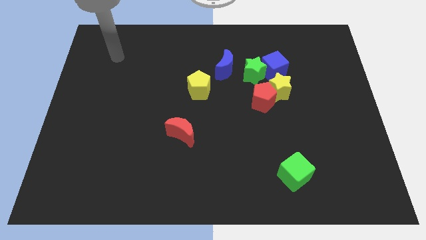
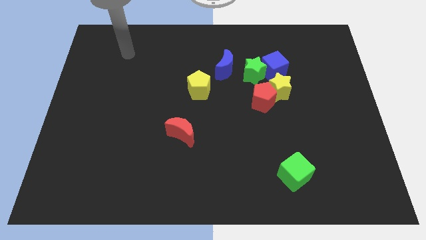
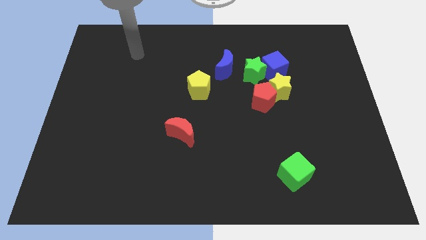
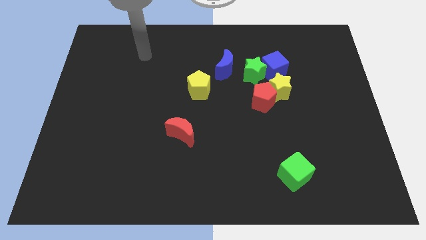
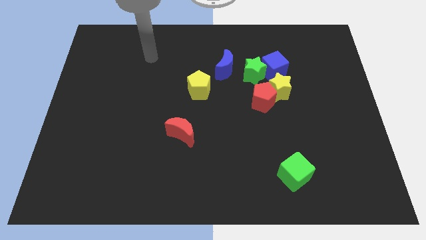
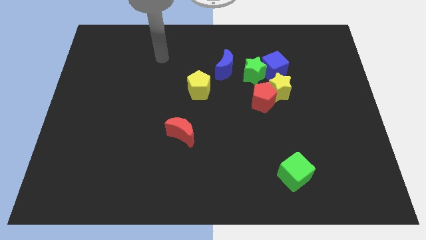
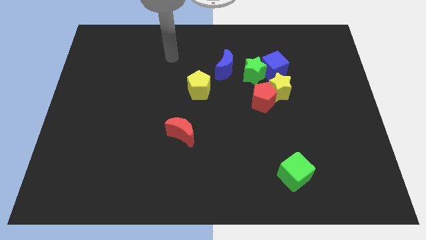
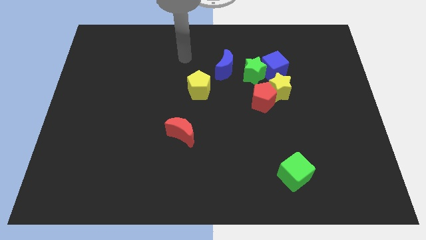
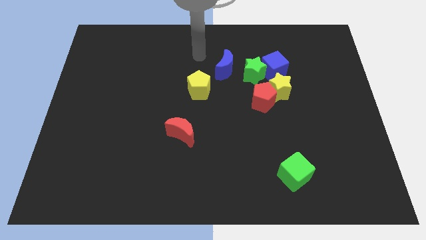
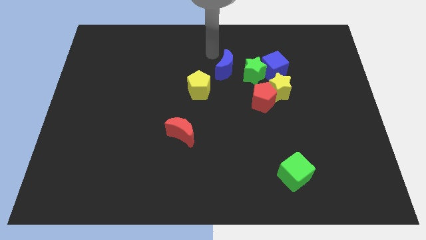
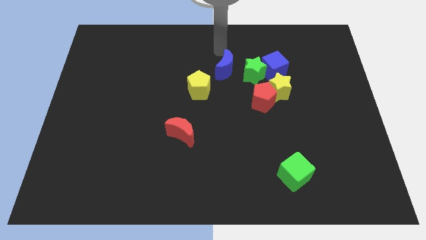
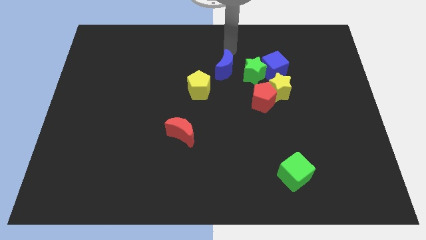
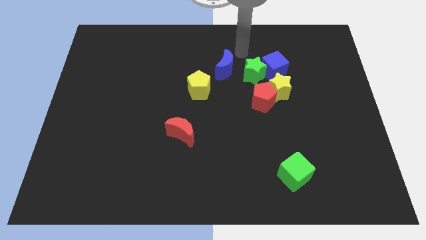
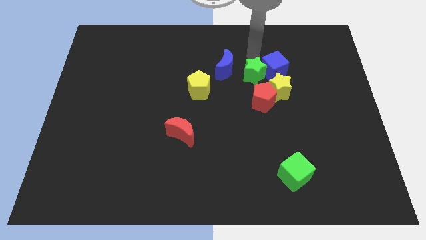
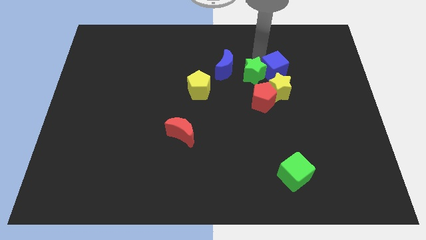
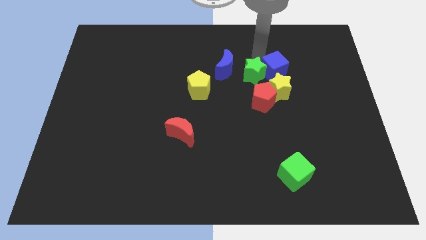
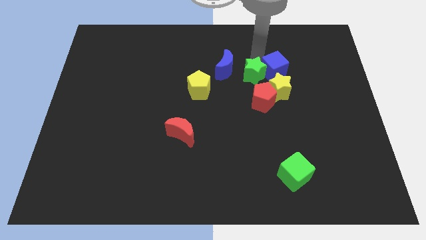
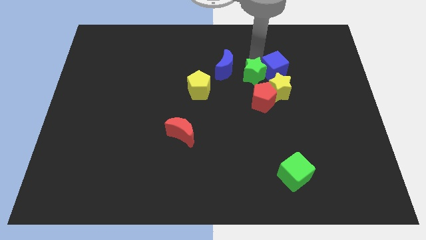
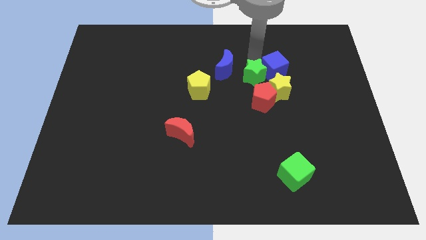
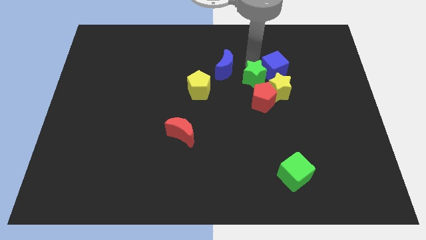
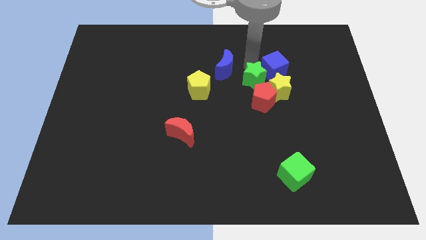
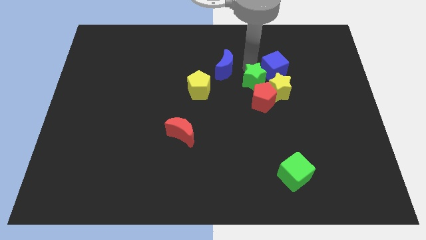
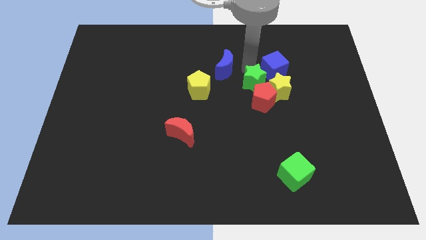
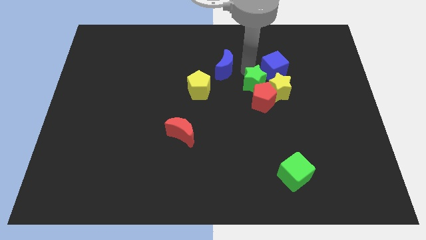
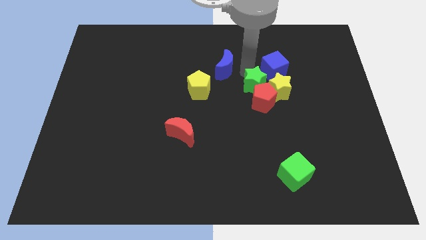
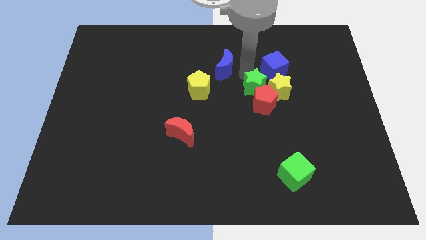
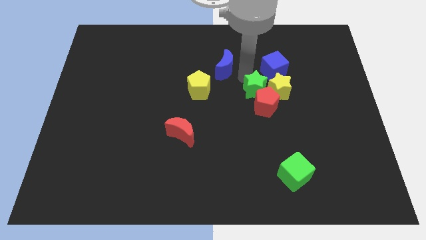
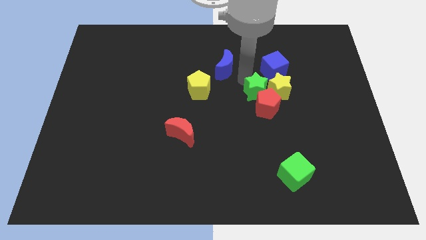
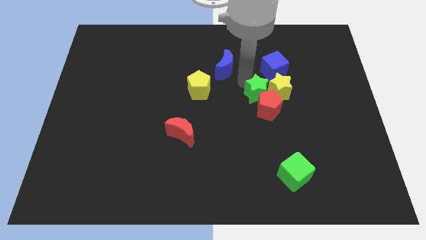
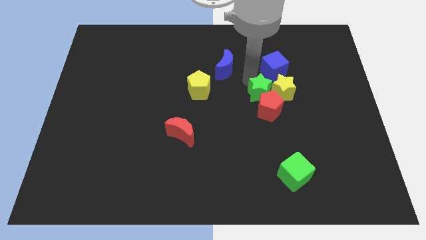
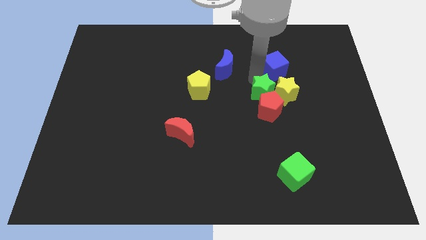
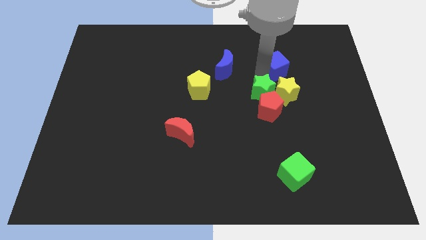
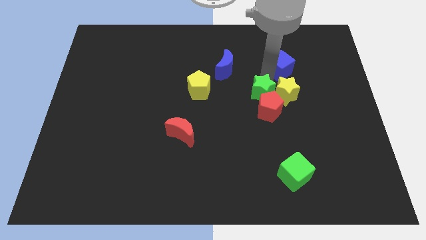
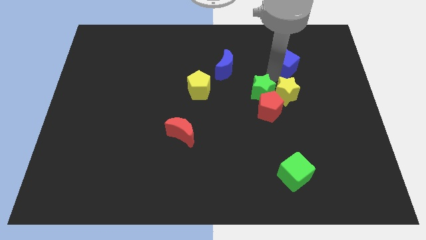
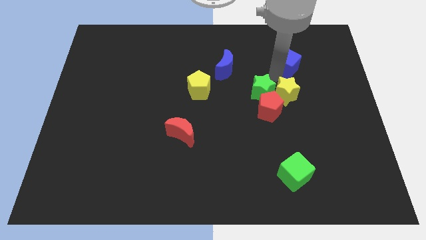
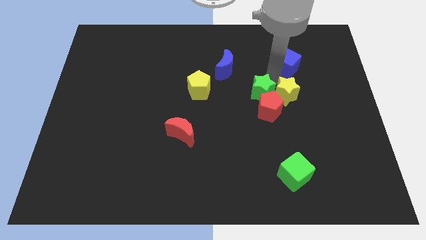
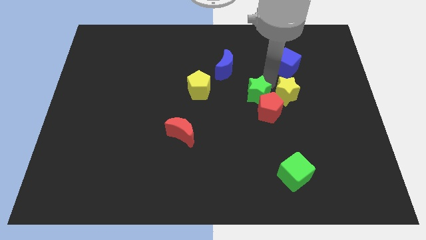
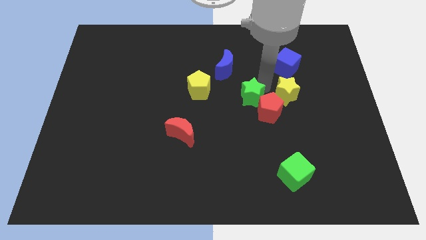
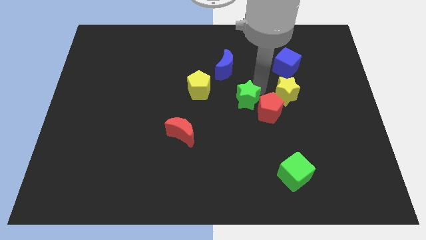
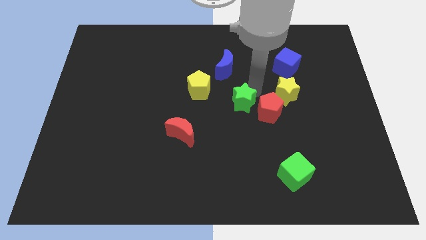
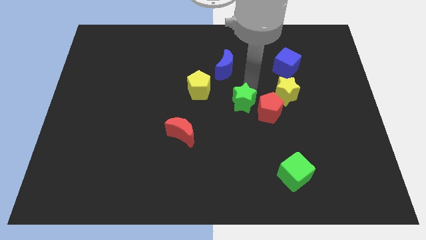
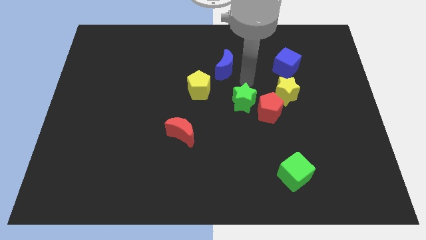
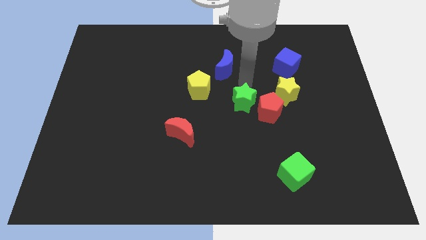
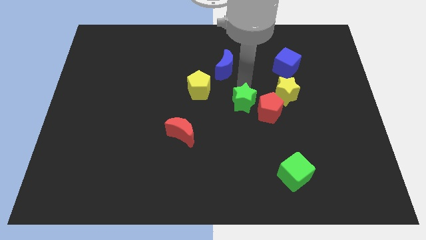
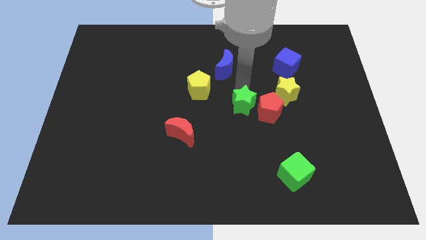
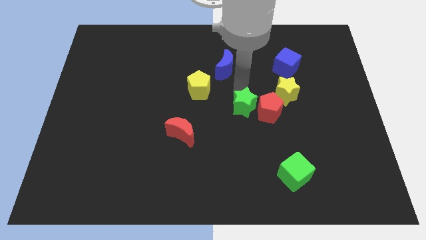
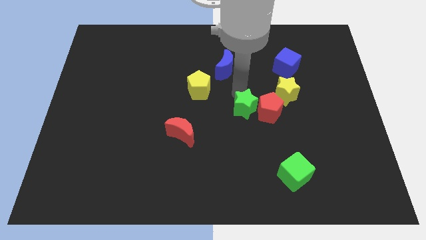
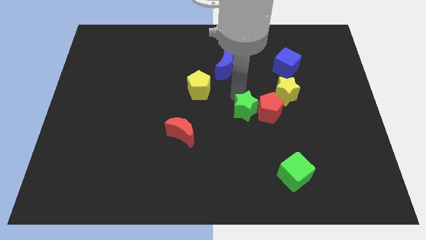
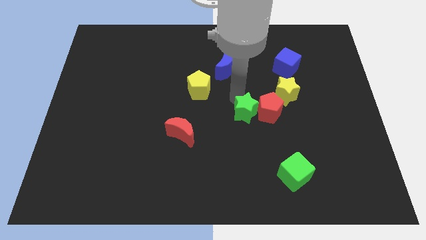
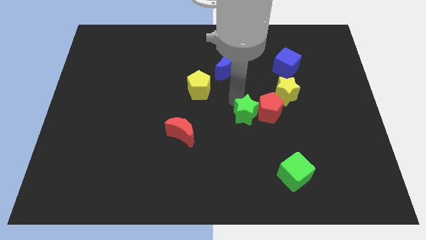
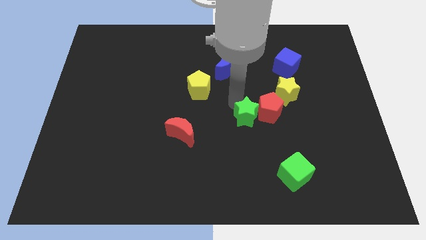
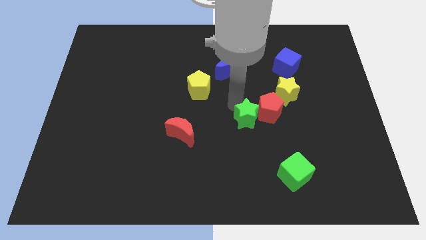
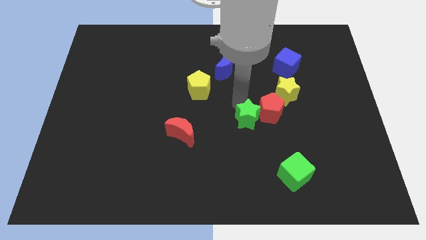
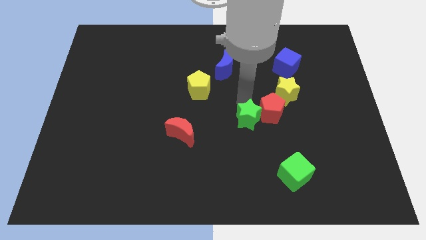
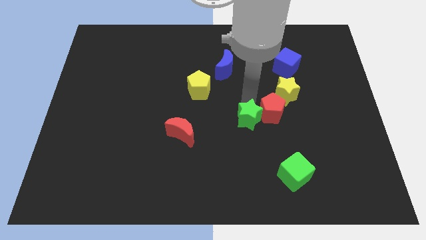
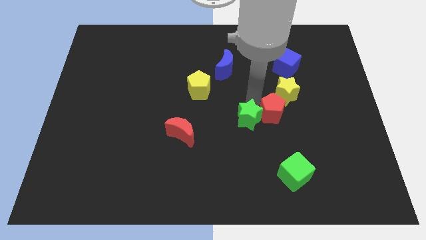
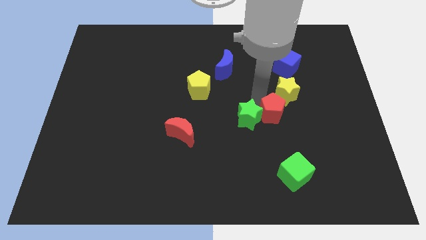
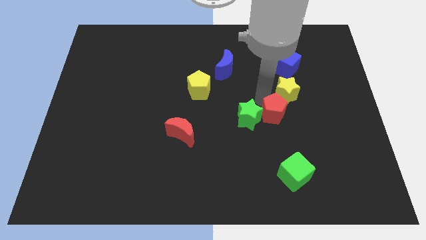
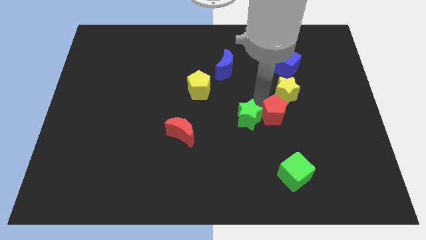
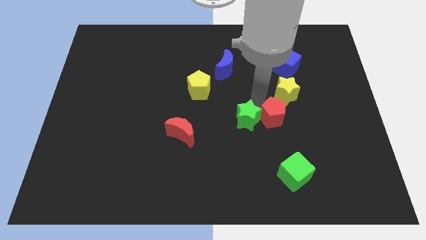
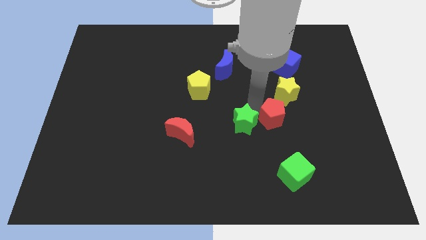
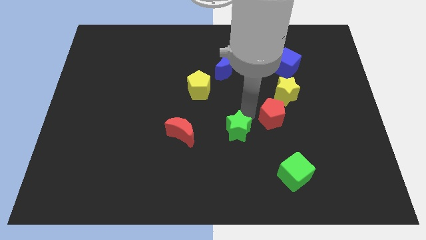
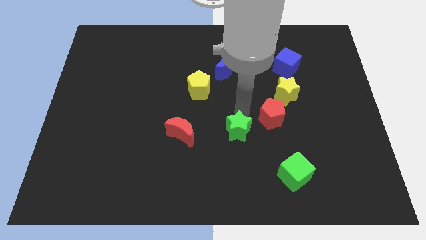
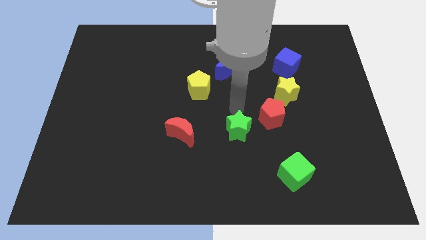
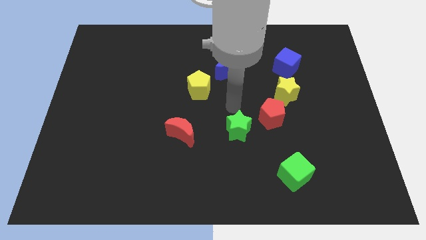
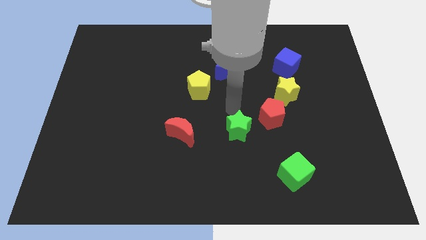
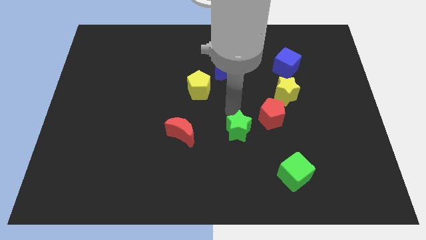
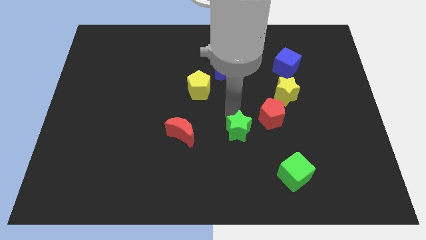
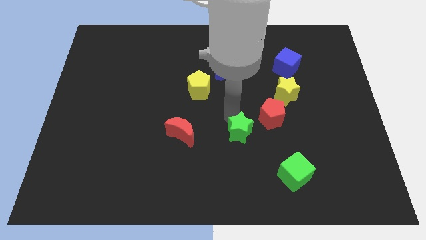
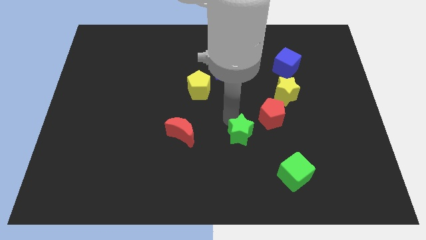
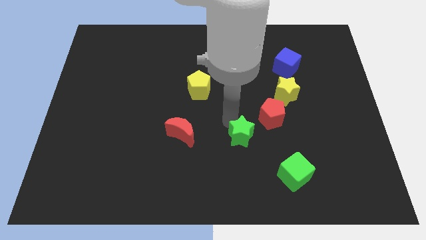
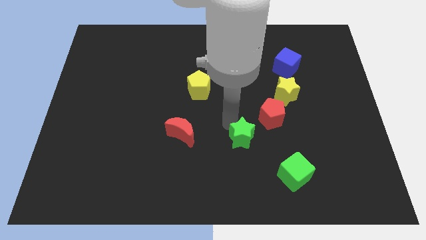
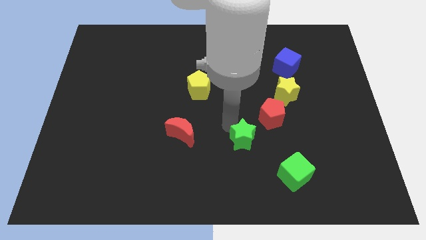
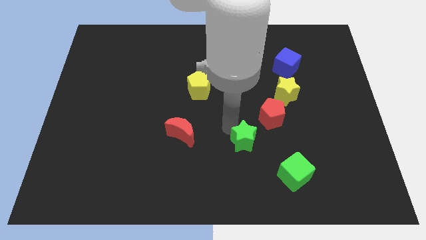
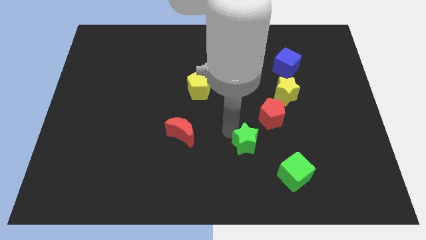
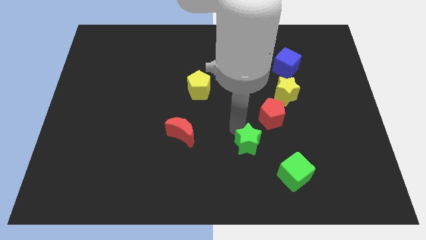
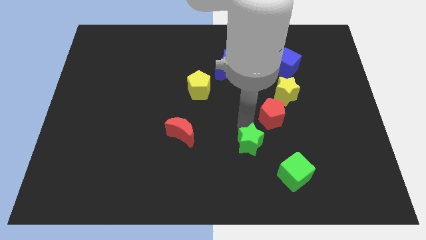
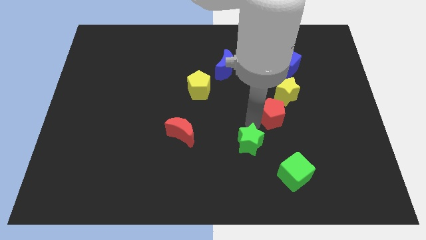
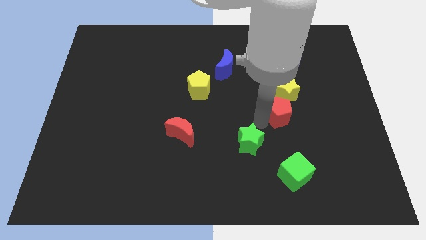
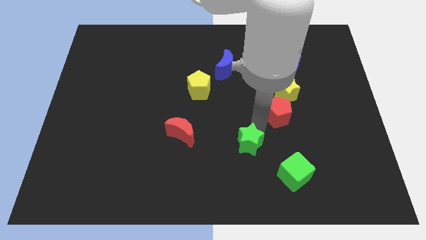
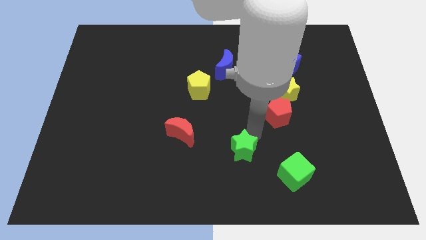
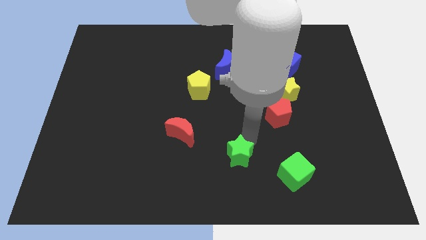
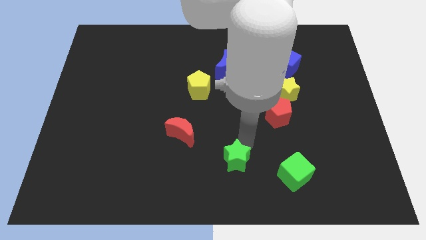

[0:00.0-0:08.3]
slide the green star to the bottom
